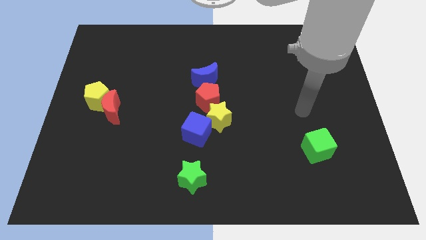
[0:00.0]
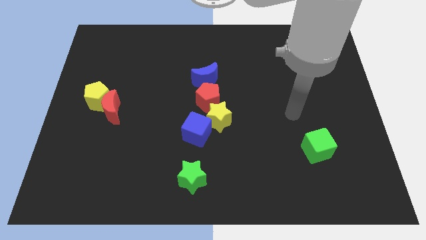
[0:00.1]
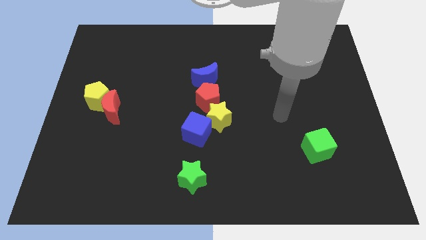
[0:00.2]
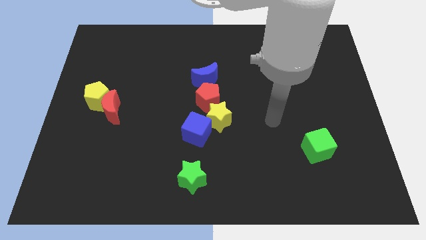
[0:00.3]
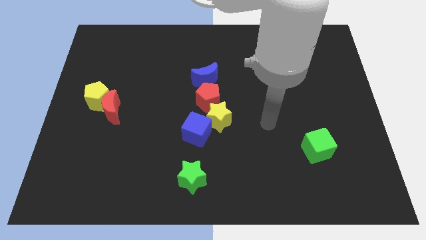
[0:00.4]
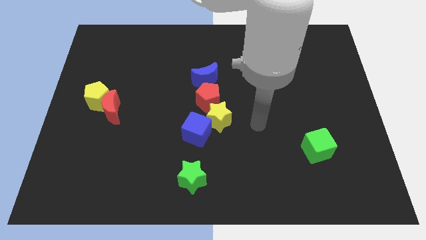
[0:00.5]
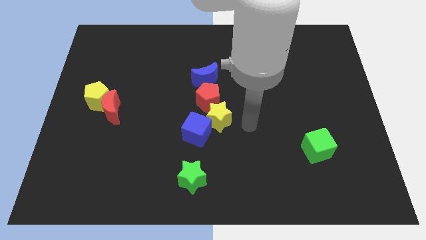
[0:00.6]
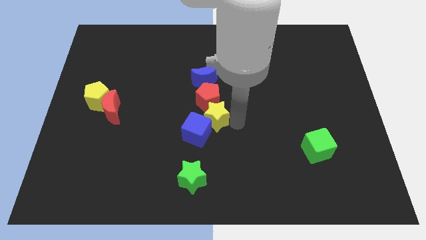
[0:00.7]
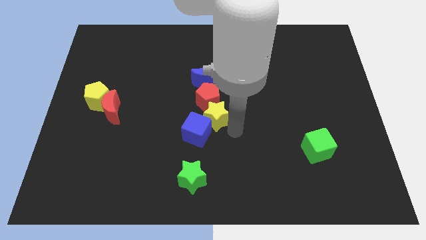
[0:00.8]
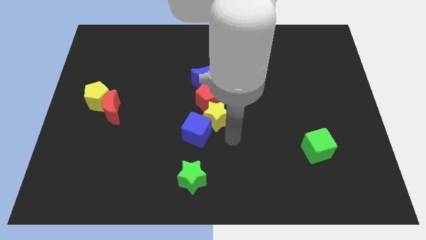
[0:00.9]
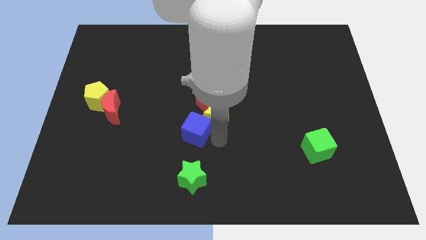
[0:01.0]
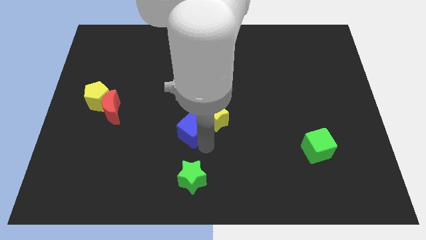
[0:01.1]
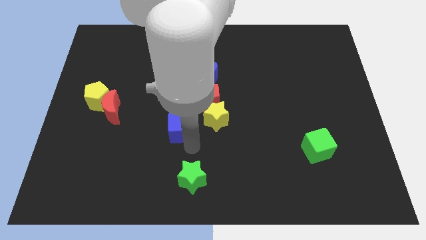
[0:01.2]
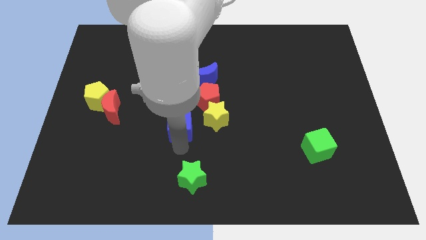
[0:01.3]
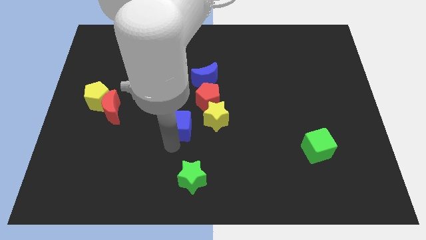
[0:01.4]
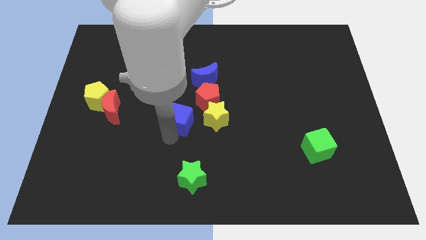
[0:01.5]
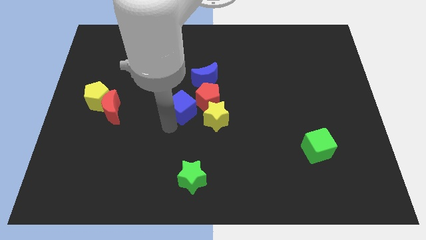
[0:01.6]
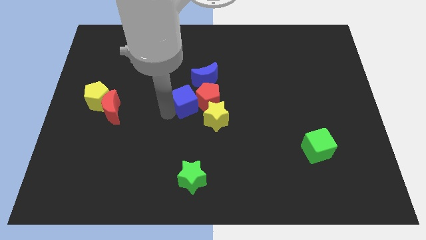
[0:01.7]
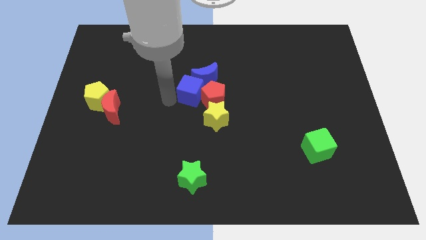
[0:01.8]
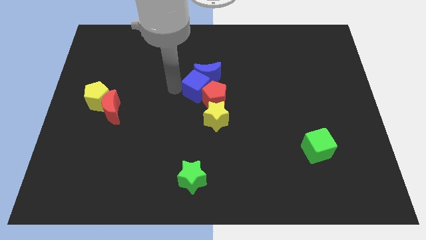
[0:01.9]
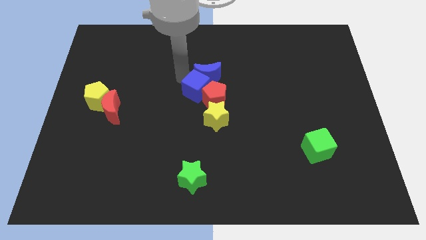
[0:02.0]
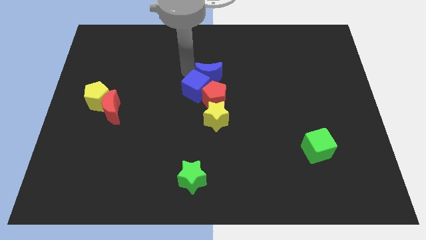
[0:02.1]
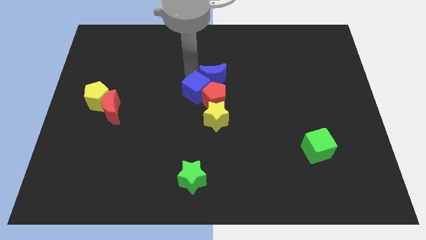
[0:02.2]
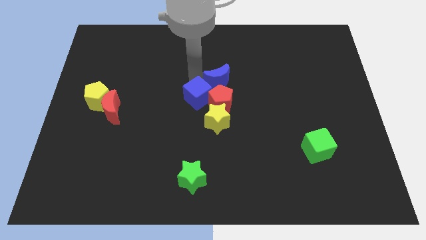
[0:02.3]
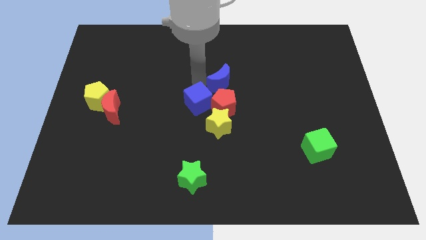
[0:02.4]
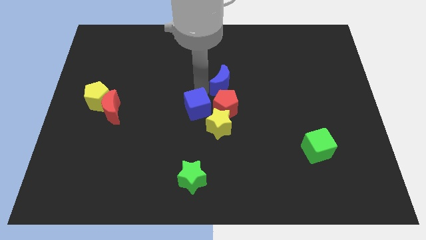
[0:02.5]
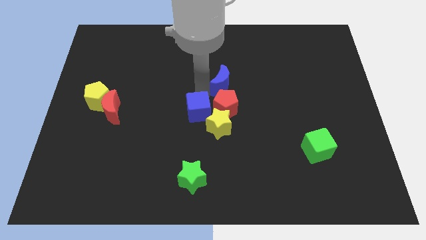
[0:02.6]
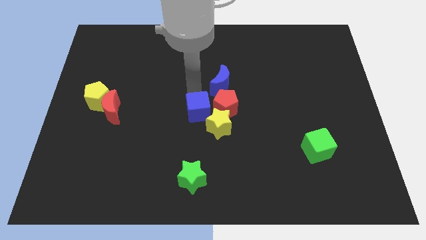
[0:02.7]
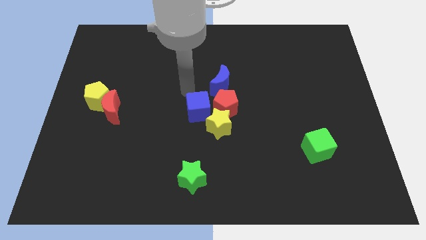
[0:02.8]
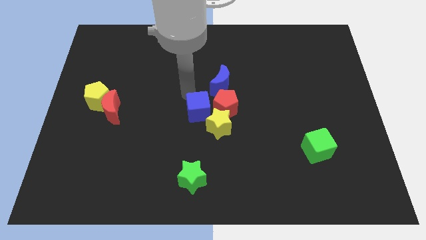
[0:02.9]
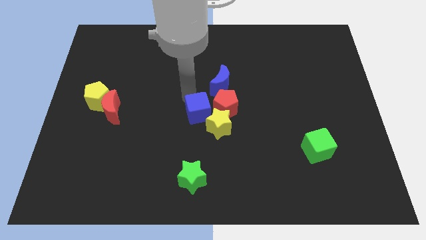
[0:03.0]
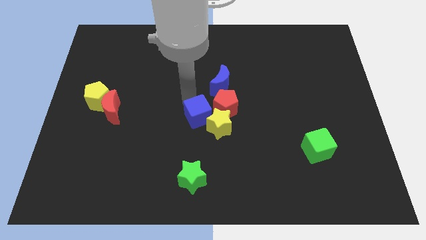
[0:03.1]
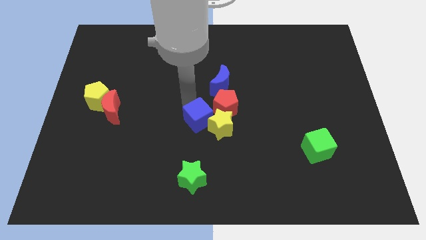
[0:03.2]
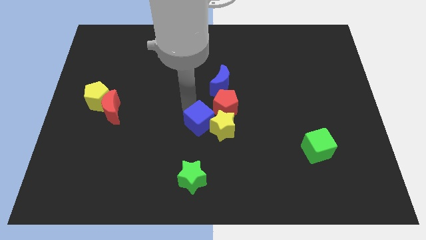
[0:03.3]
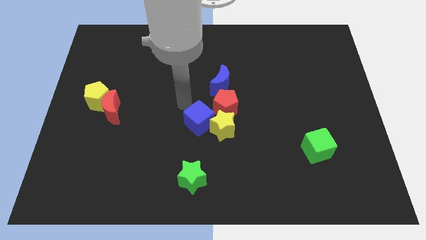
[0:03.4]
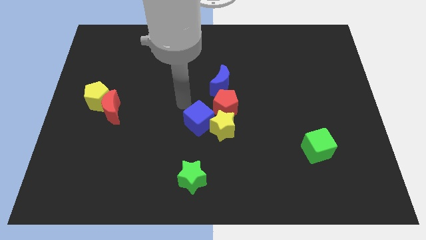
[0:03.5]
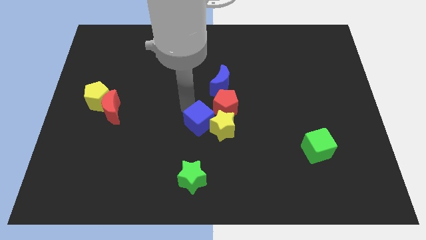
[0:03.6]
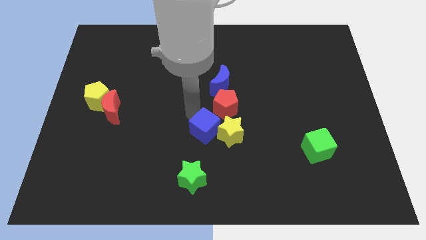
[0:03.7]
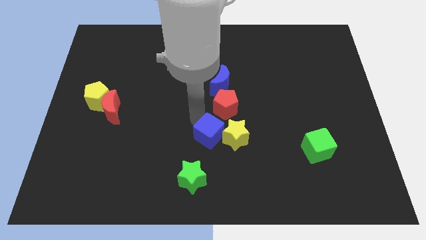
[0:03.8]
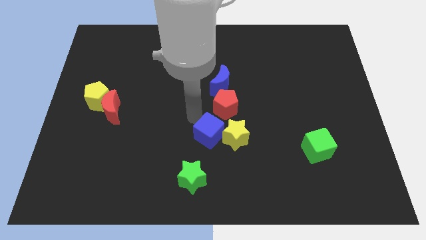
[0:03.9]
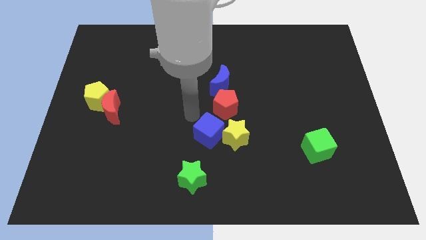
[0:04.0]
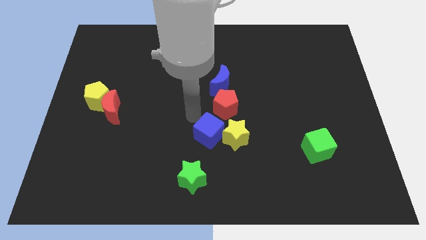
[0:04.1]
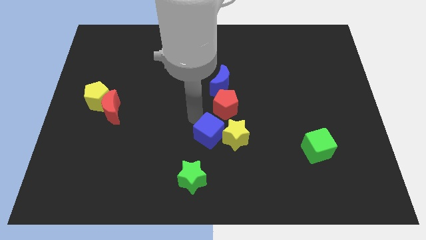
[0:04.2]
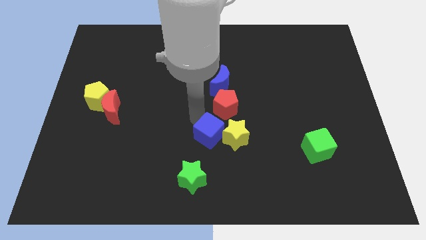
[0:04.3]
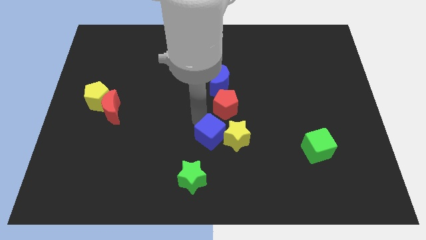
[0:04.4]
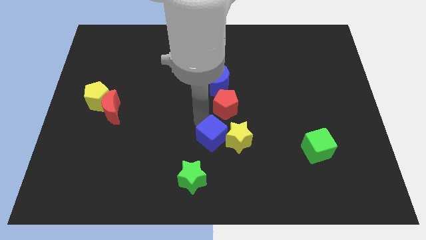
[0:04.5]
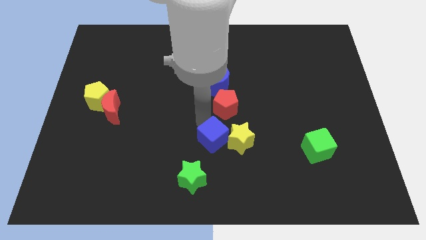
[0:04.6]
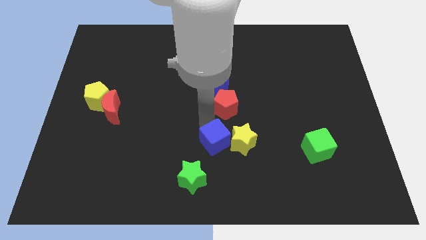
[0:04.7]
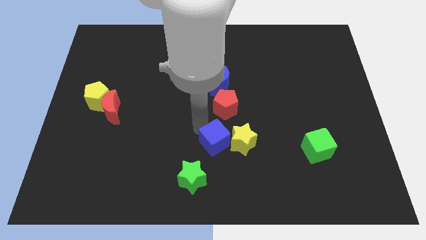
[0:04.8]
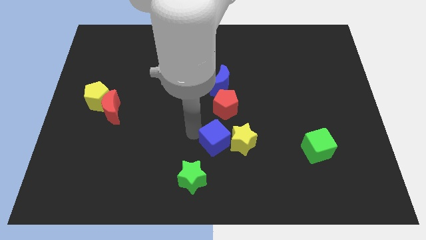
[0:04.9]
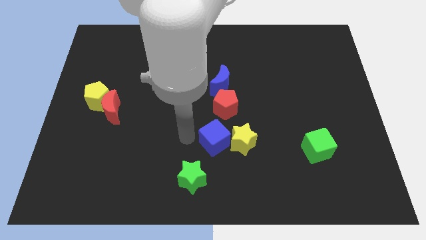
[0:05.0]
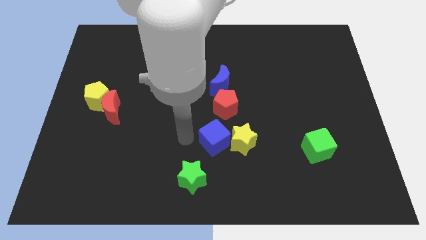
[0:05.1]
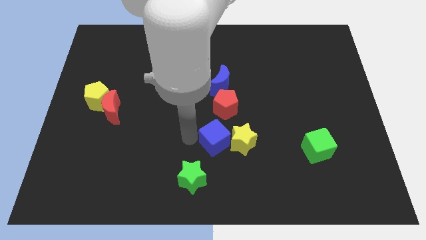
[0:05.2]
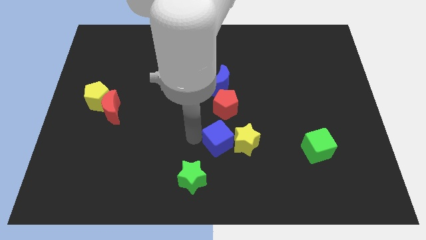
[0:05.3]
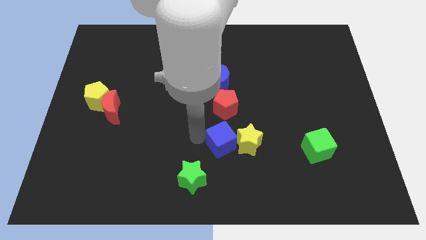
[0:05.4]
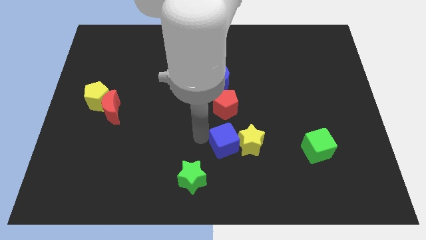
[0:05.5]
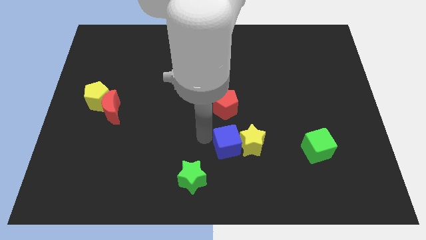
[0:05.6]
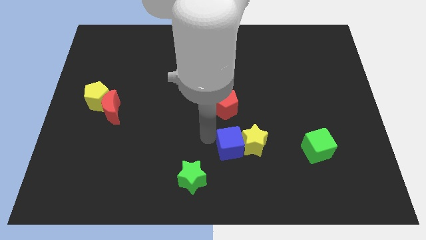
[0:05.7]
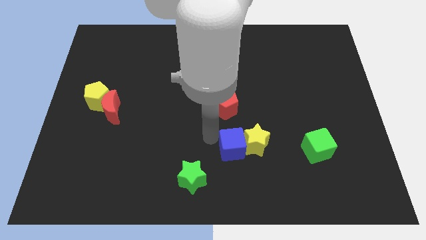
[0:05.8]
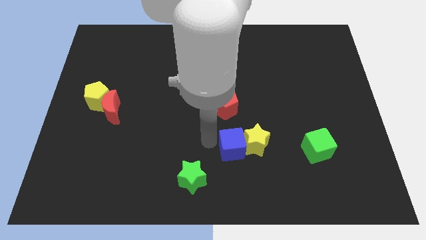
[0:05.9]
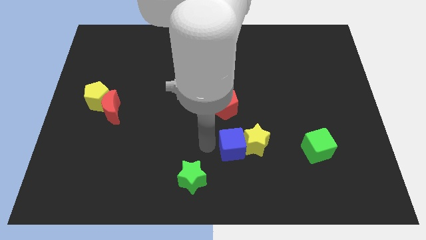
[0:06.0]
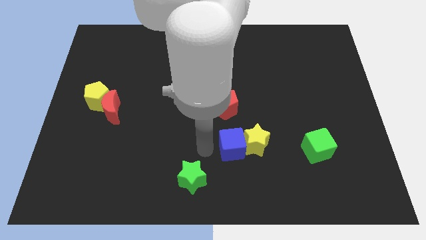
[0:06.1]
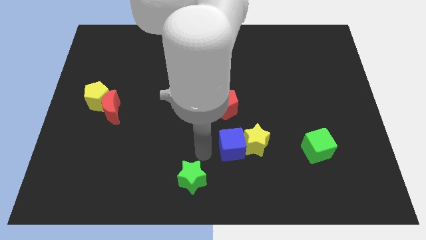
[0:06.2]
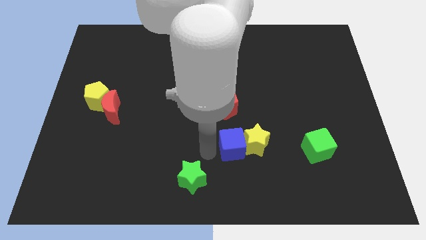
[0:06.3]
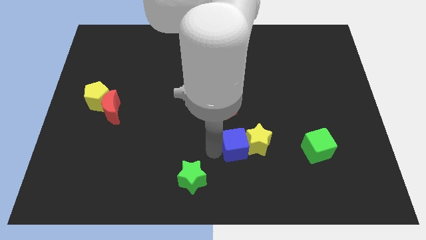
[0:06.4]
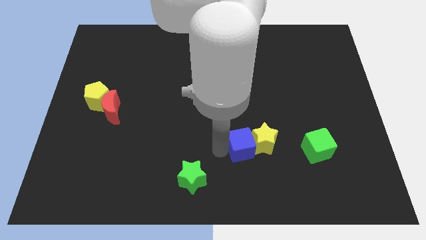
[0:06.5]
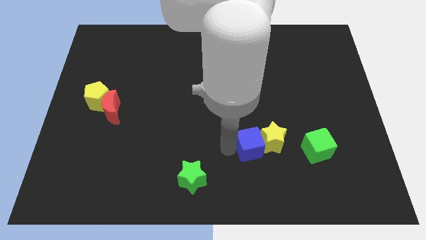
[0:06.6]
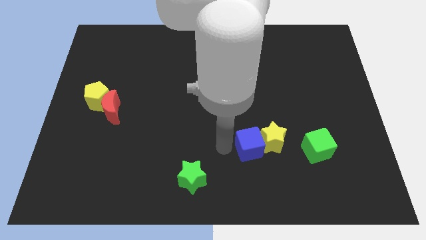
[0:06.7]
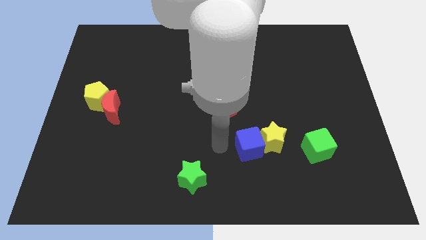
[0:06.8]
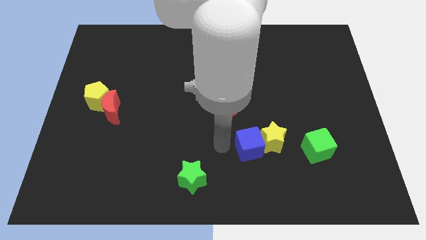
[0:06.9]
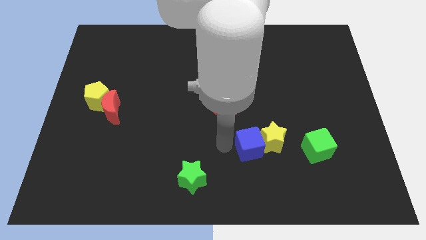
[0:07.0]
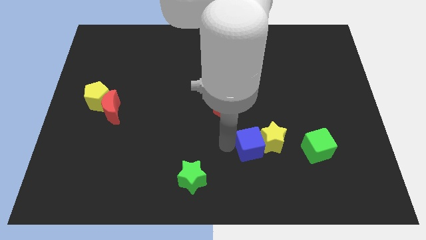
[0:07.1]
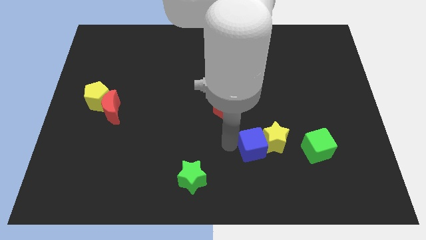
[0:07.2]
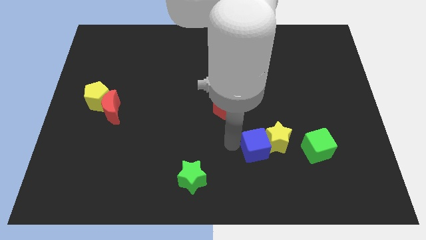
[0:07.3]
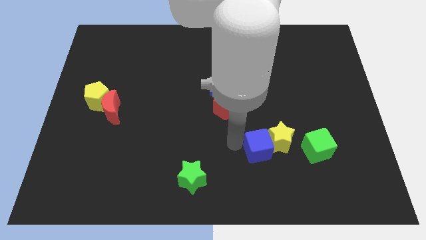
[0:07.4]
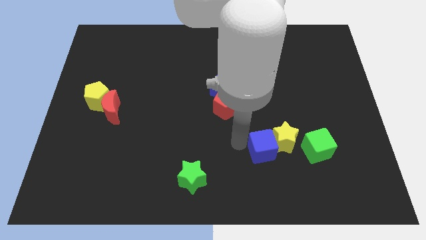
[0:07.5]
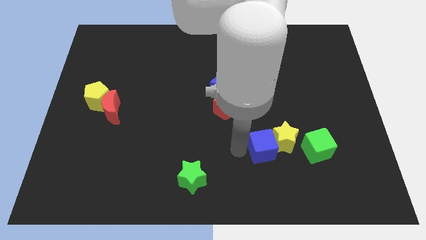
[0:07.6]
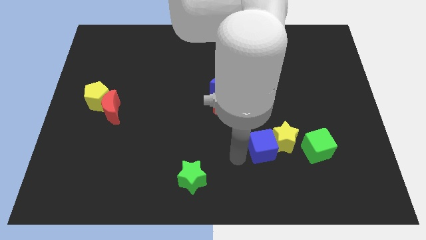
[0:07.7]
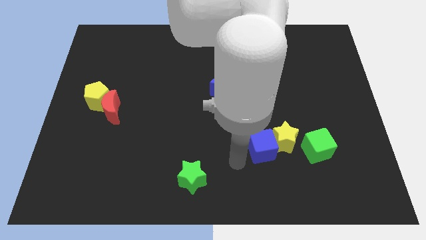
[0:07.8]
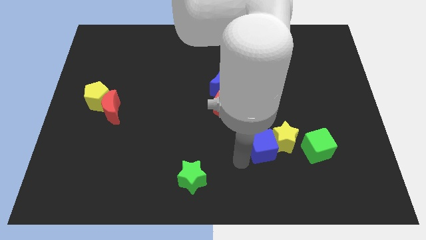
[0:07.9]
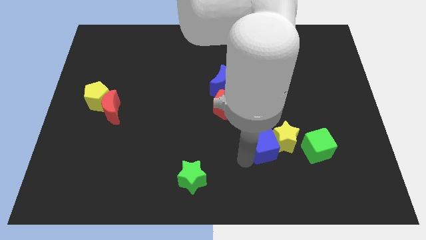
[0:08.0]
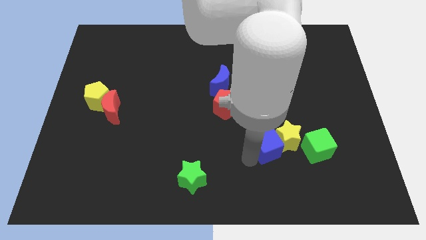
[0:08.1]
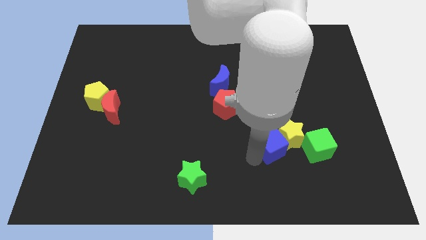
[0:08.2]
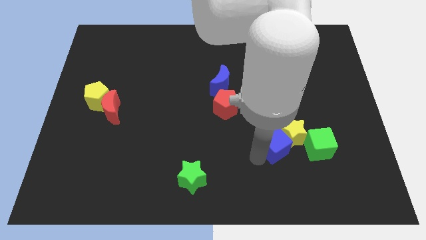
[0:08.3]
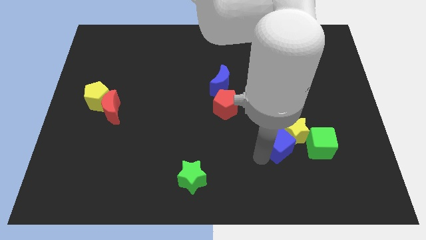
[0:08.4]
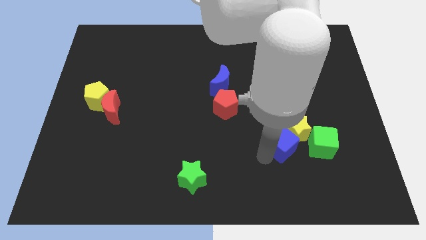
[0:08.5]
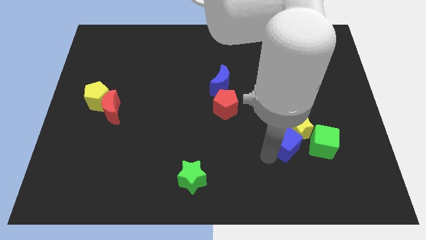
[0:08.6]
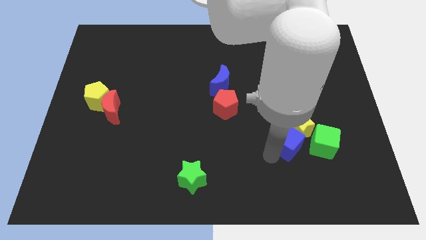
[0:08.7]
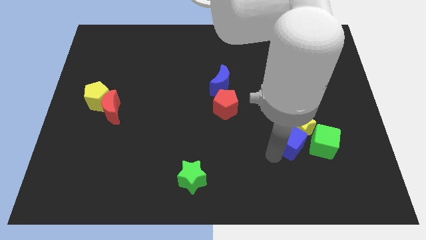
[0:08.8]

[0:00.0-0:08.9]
move the blue cube right
